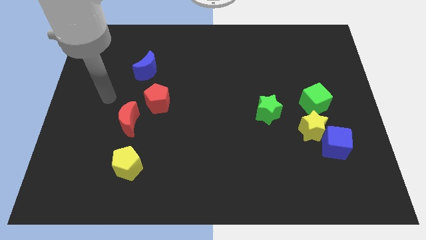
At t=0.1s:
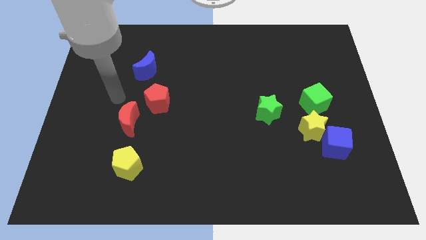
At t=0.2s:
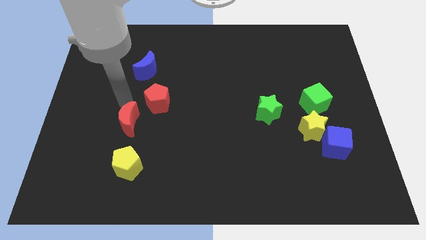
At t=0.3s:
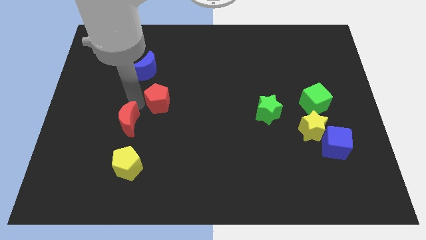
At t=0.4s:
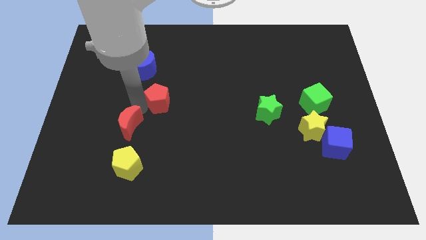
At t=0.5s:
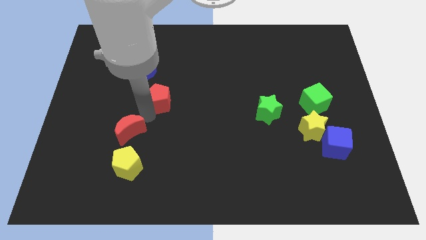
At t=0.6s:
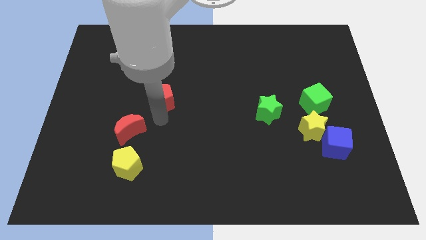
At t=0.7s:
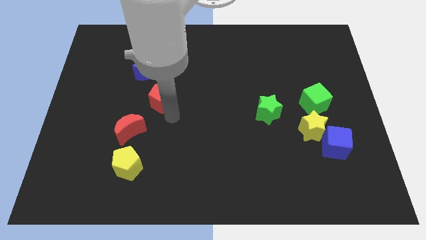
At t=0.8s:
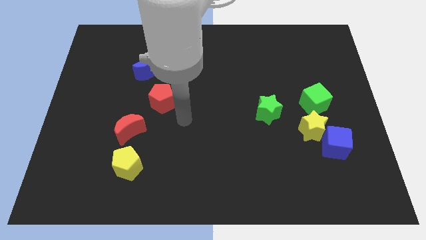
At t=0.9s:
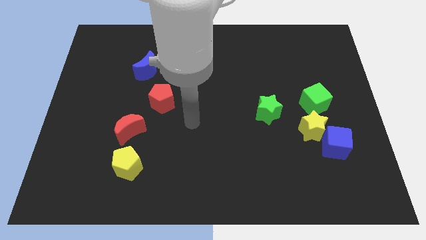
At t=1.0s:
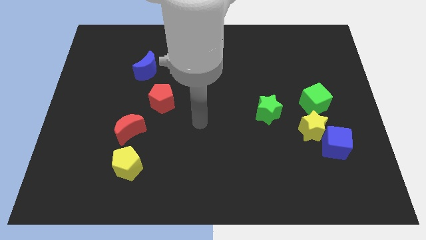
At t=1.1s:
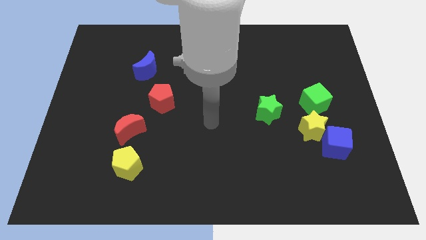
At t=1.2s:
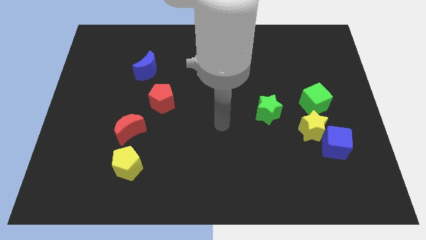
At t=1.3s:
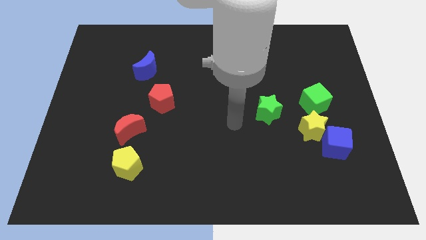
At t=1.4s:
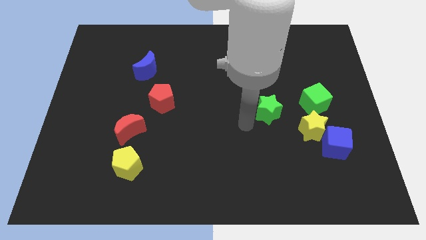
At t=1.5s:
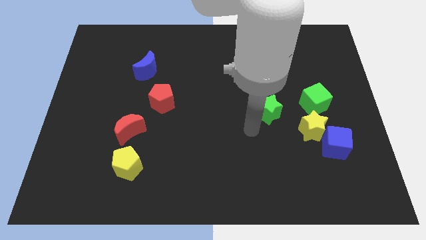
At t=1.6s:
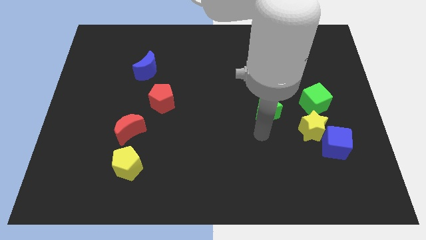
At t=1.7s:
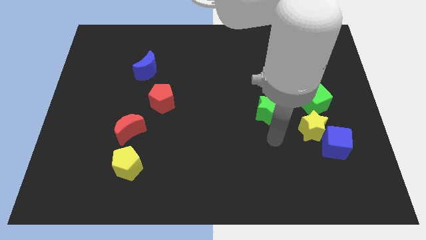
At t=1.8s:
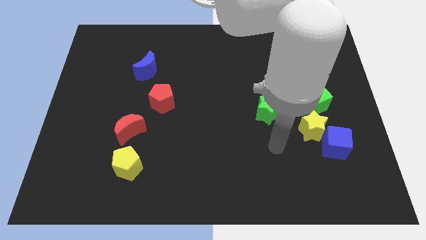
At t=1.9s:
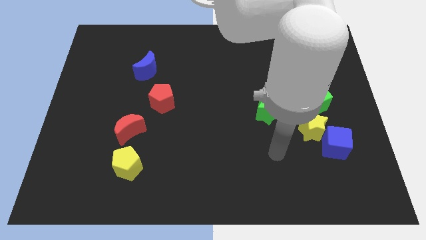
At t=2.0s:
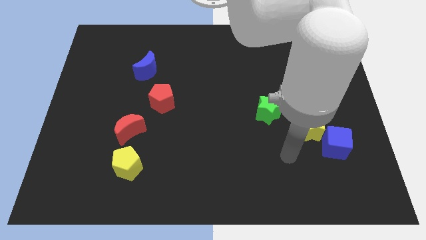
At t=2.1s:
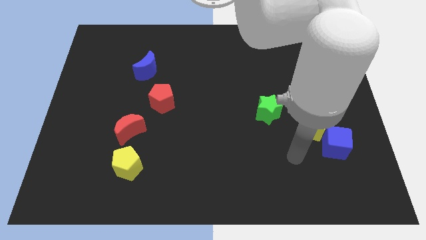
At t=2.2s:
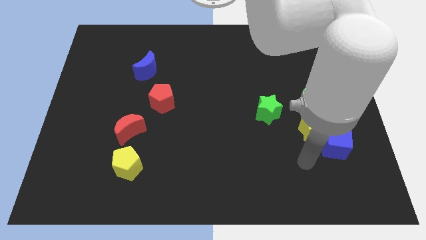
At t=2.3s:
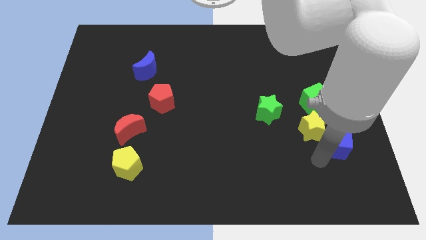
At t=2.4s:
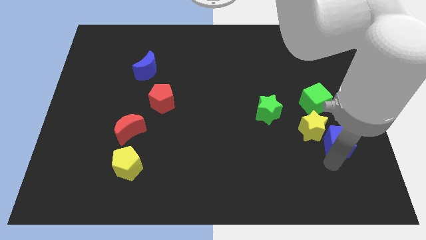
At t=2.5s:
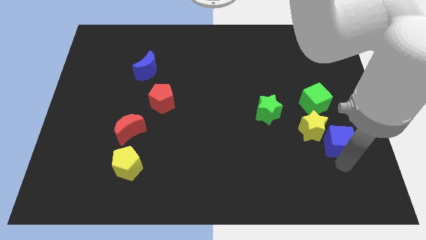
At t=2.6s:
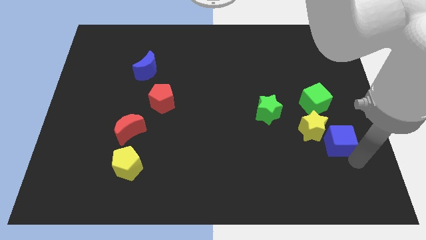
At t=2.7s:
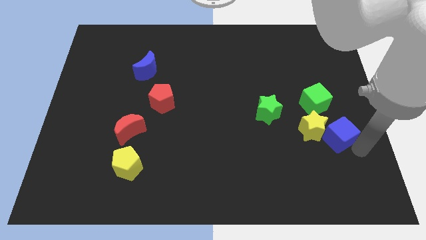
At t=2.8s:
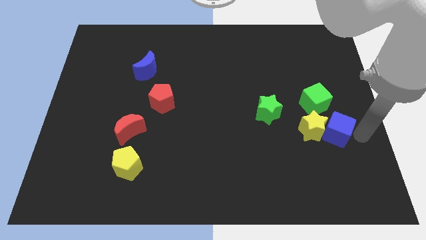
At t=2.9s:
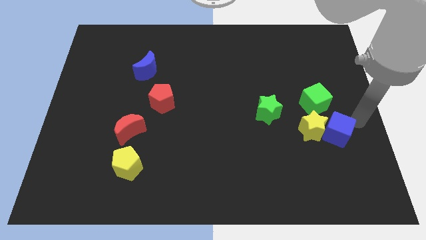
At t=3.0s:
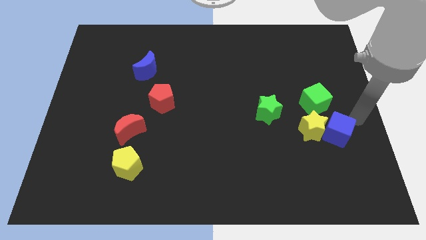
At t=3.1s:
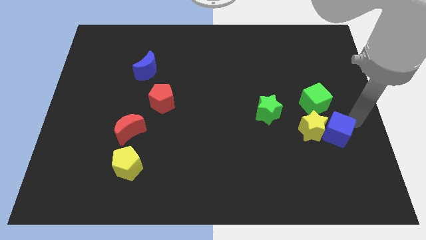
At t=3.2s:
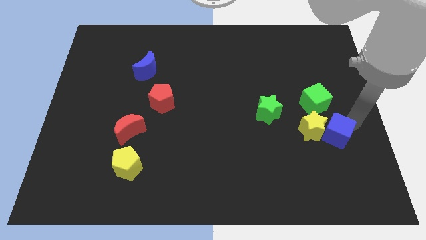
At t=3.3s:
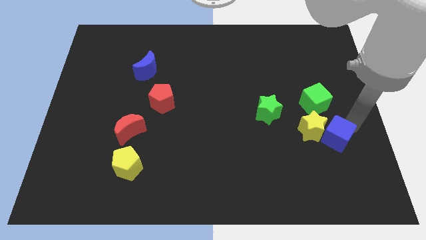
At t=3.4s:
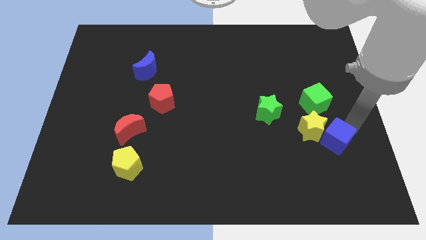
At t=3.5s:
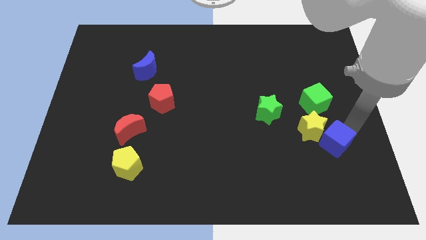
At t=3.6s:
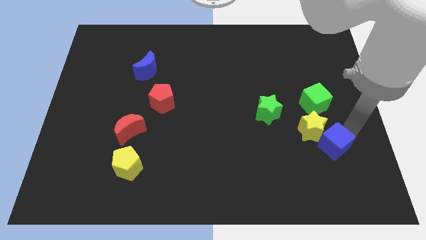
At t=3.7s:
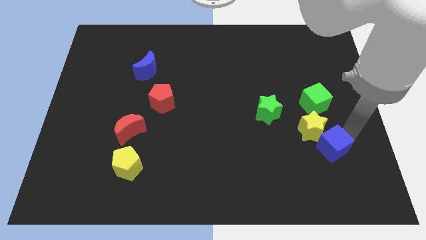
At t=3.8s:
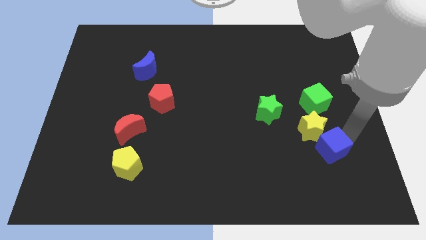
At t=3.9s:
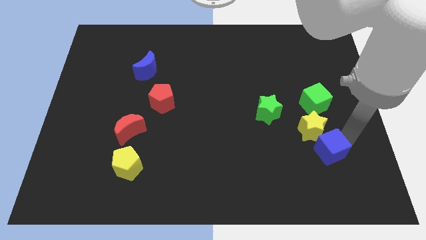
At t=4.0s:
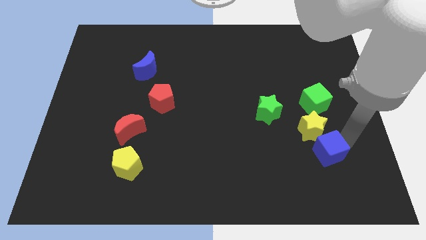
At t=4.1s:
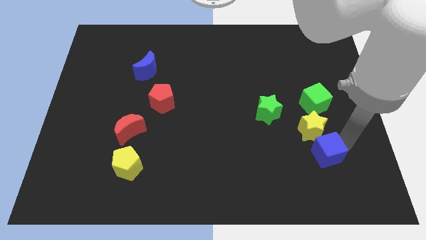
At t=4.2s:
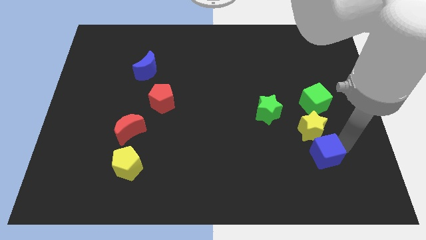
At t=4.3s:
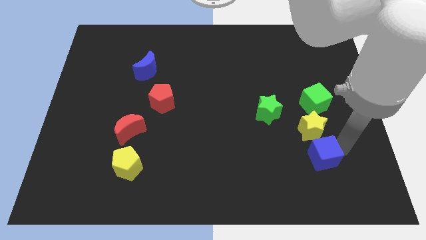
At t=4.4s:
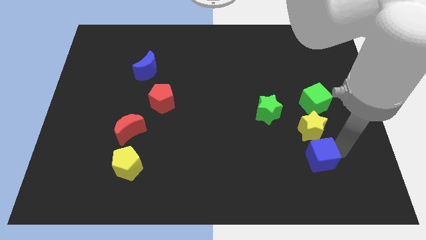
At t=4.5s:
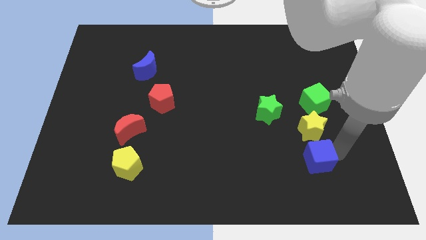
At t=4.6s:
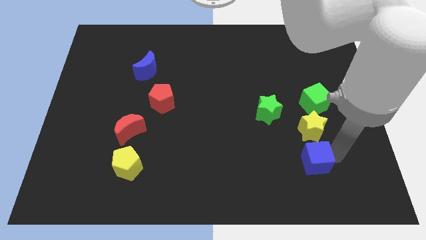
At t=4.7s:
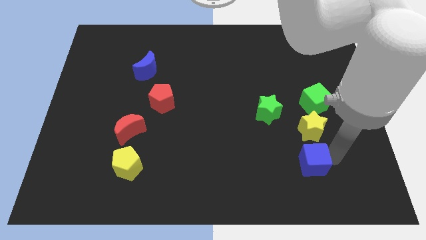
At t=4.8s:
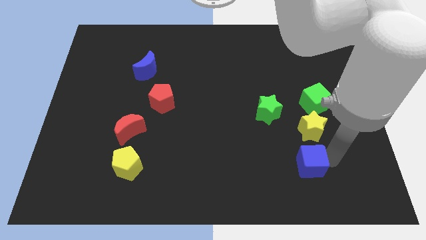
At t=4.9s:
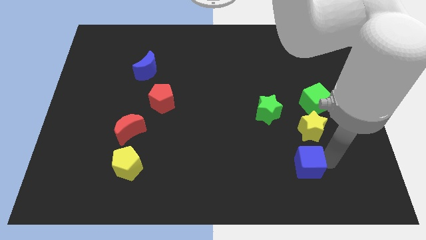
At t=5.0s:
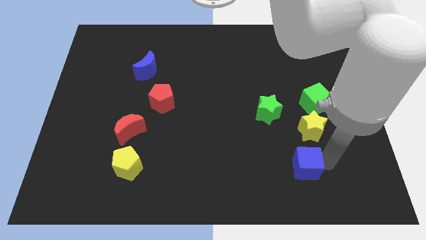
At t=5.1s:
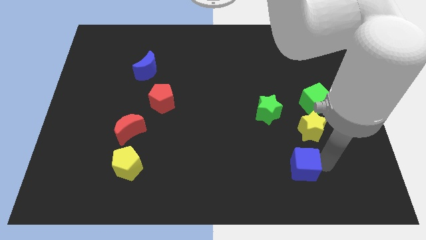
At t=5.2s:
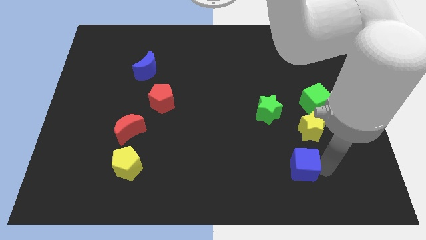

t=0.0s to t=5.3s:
slightly slide the blue cube to the left

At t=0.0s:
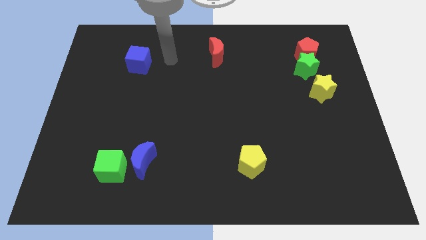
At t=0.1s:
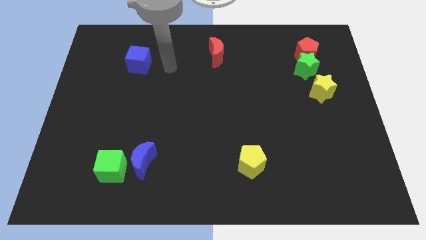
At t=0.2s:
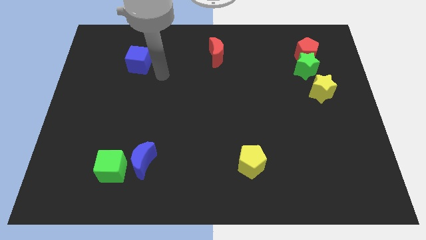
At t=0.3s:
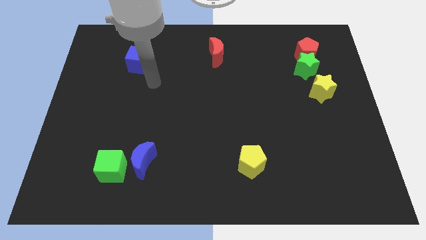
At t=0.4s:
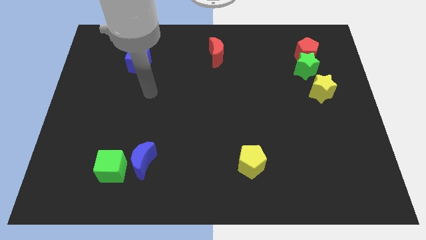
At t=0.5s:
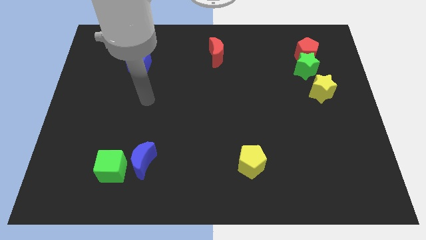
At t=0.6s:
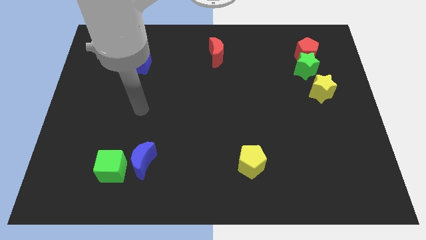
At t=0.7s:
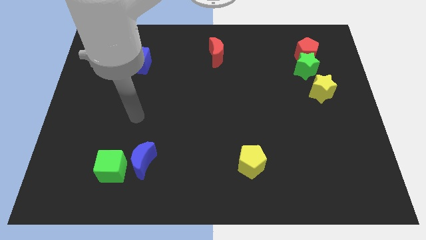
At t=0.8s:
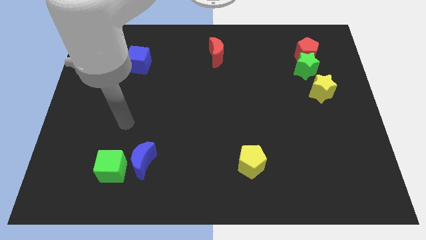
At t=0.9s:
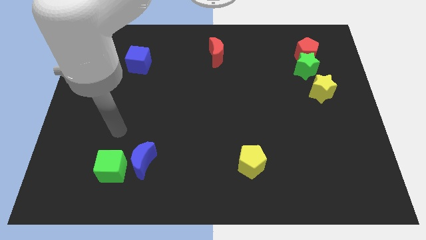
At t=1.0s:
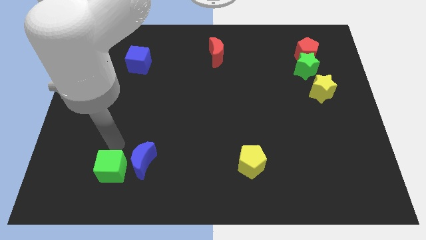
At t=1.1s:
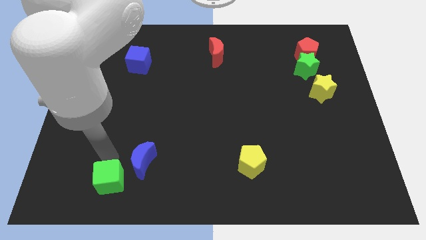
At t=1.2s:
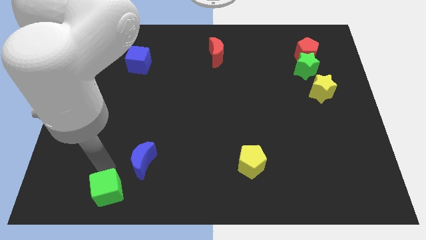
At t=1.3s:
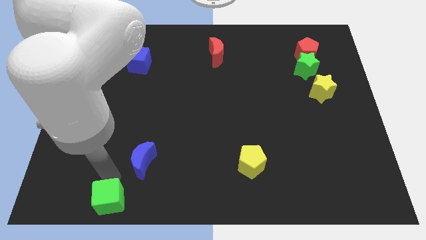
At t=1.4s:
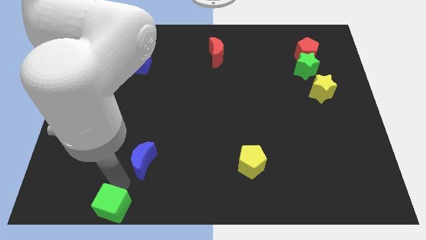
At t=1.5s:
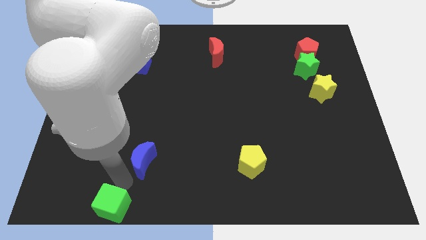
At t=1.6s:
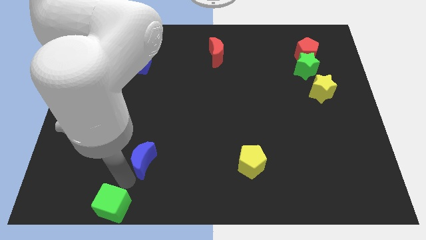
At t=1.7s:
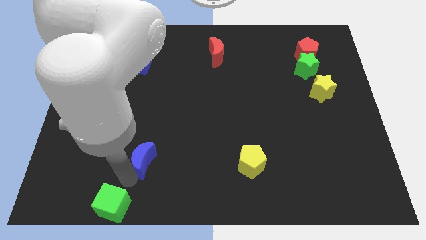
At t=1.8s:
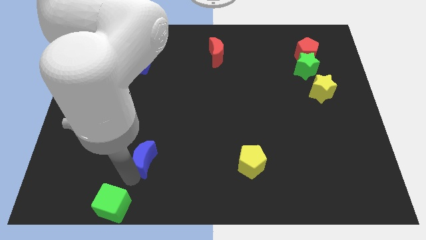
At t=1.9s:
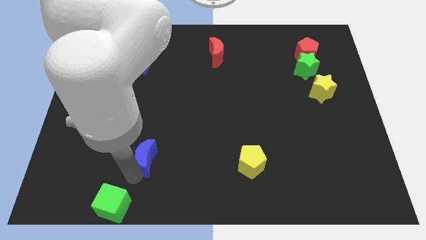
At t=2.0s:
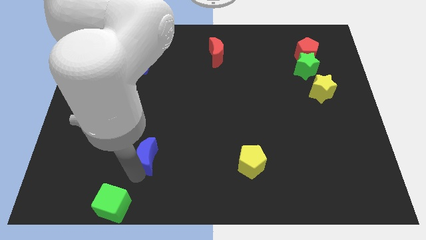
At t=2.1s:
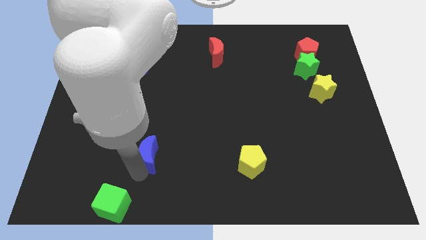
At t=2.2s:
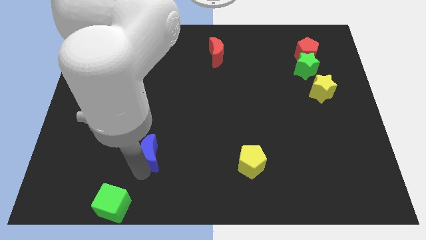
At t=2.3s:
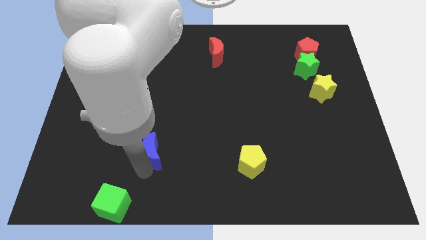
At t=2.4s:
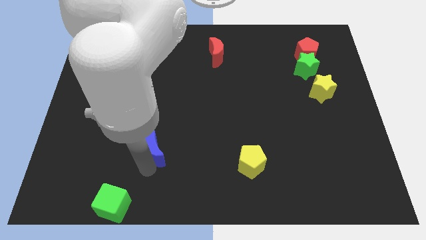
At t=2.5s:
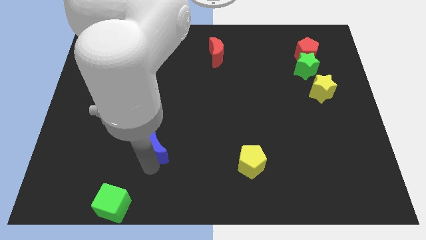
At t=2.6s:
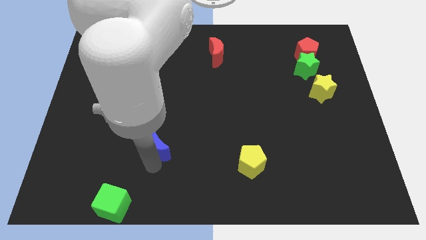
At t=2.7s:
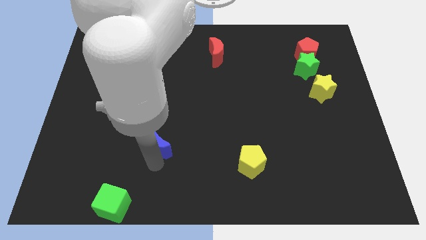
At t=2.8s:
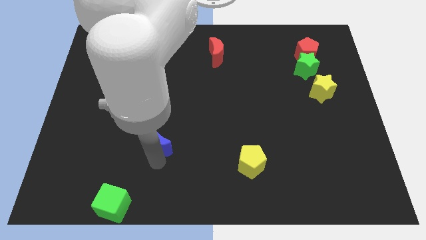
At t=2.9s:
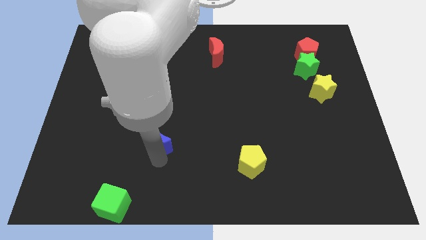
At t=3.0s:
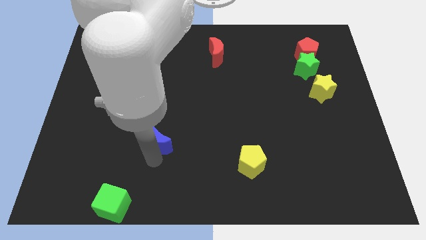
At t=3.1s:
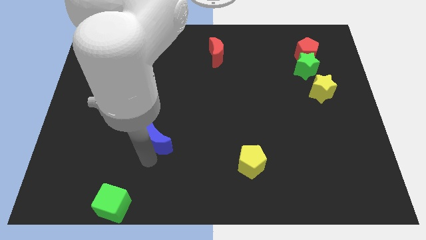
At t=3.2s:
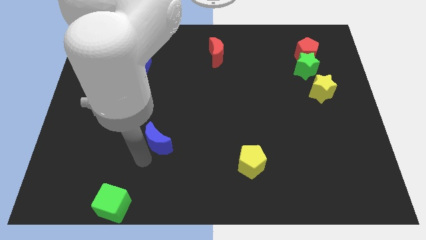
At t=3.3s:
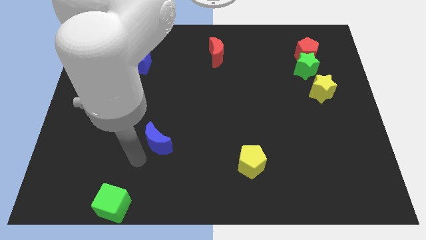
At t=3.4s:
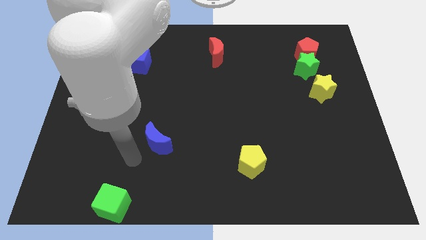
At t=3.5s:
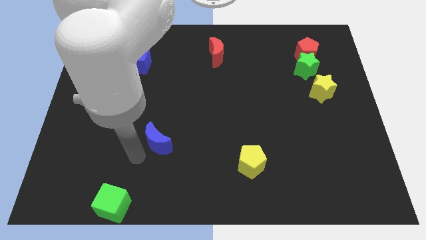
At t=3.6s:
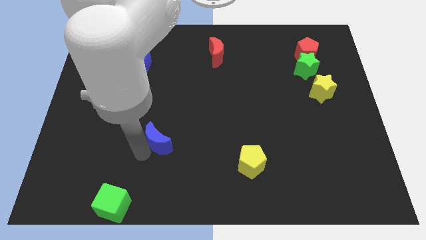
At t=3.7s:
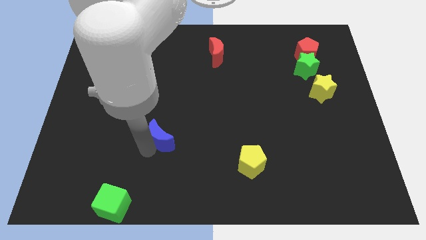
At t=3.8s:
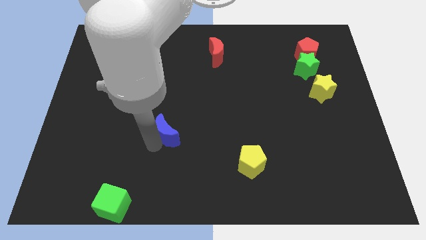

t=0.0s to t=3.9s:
push the blue moon up and to the right diagonally a little
